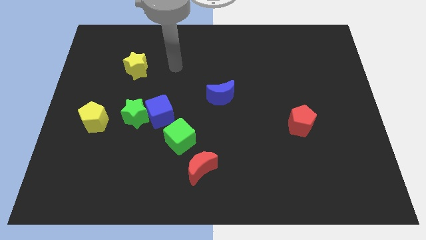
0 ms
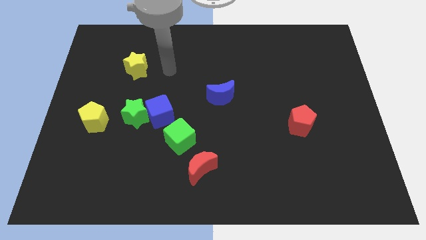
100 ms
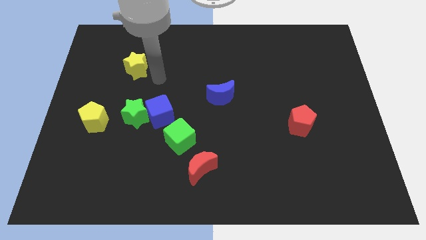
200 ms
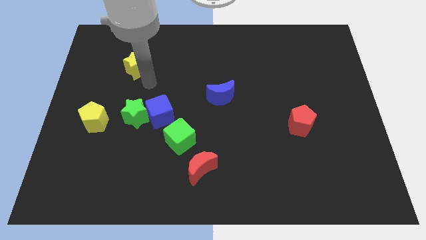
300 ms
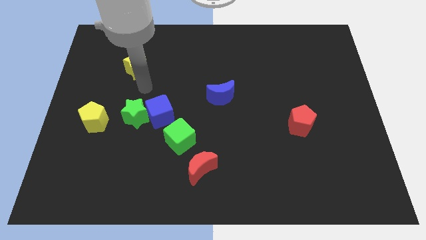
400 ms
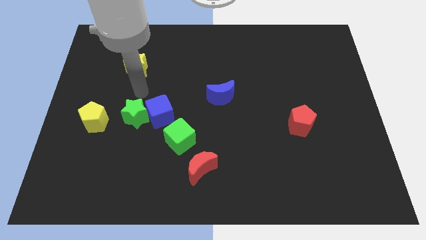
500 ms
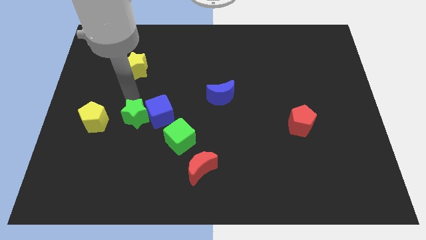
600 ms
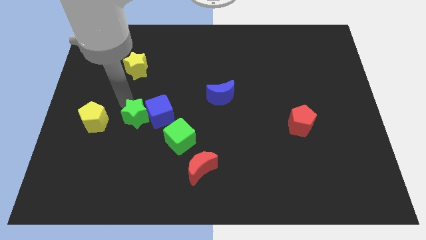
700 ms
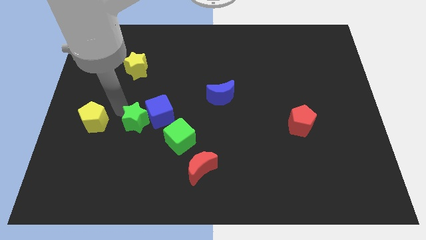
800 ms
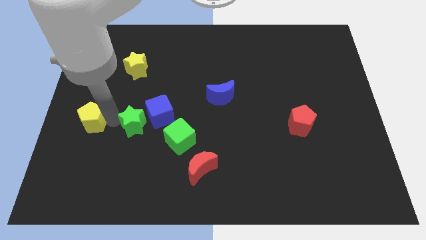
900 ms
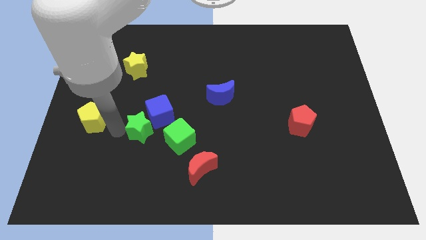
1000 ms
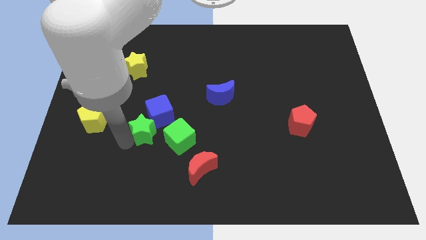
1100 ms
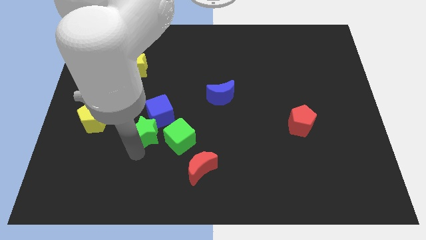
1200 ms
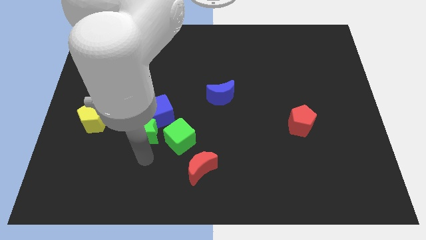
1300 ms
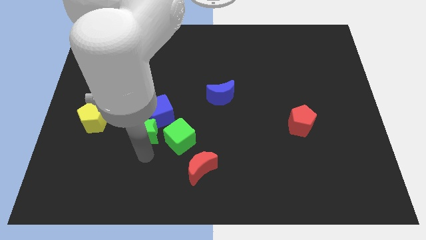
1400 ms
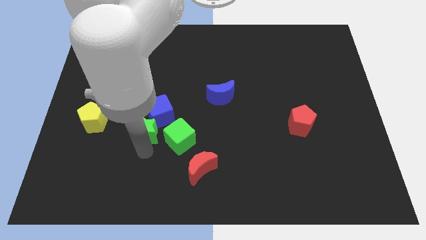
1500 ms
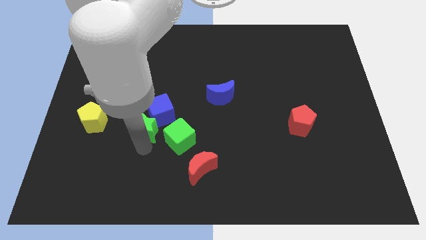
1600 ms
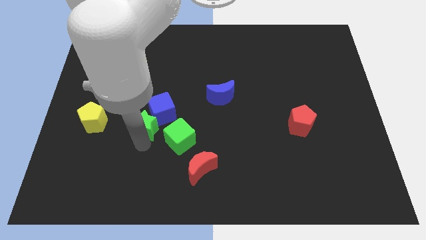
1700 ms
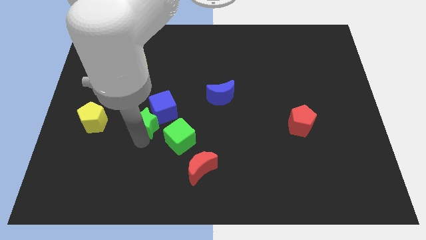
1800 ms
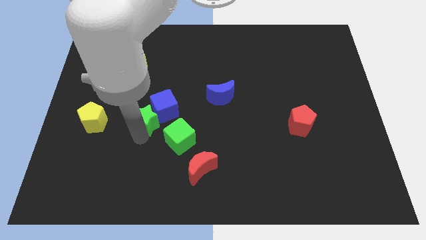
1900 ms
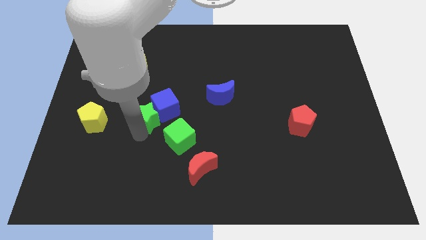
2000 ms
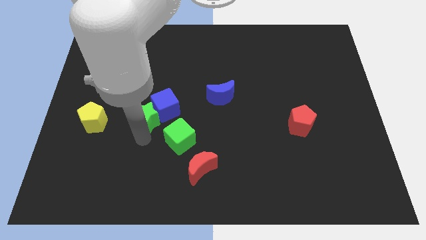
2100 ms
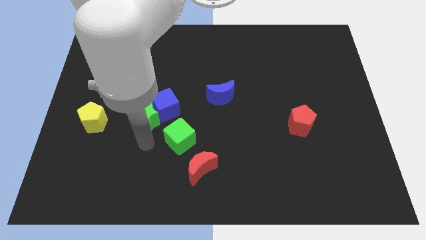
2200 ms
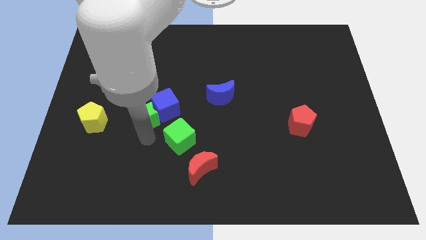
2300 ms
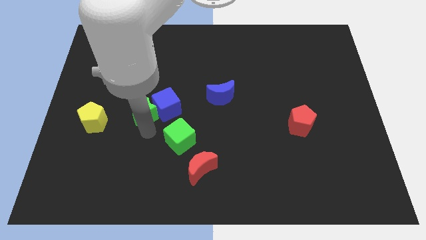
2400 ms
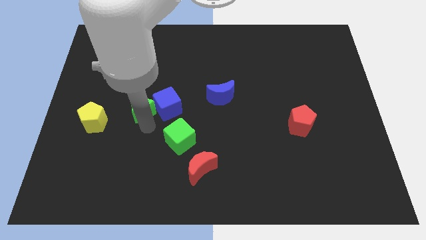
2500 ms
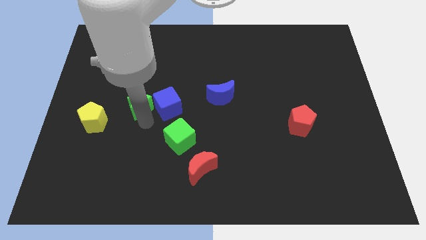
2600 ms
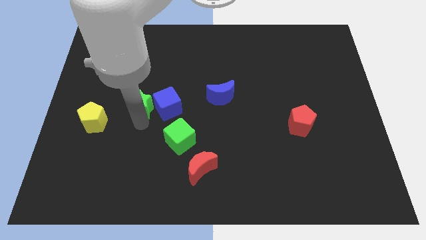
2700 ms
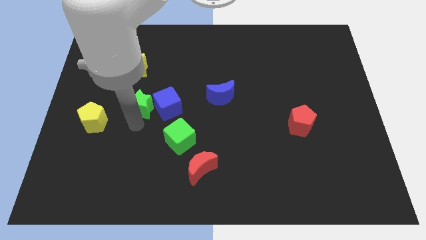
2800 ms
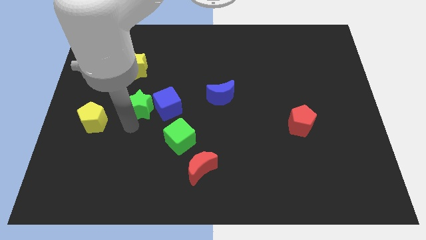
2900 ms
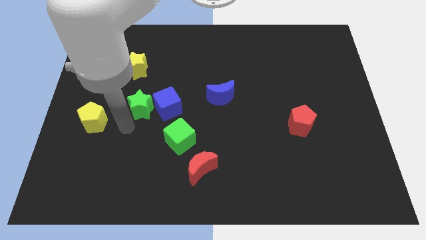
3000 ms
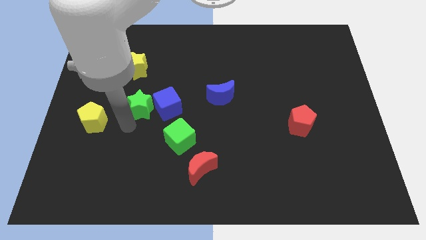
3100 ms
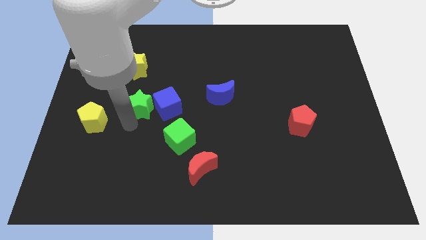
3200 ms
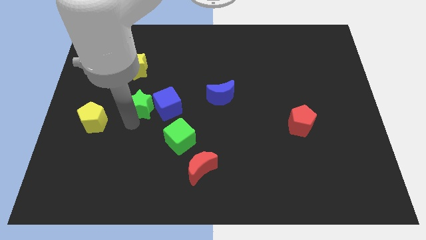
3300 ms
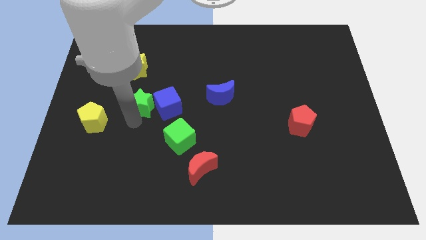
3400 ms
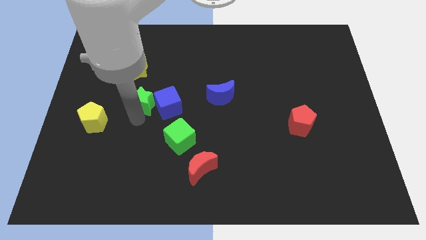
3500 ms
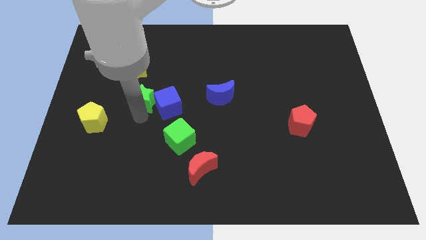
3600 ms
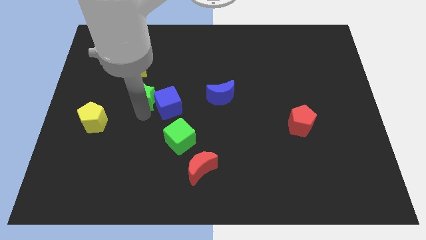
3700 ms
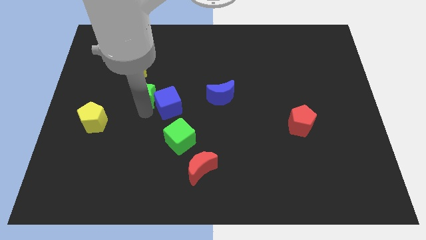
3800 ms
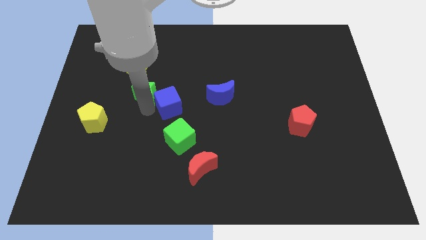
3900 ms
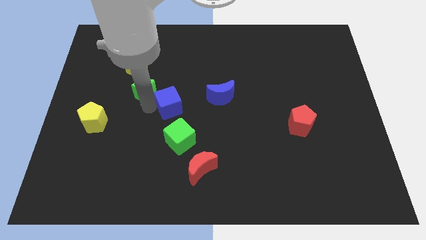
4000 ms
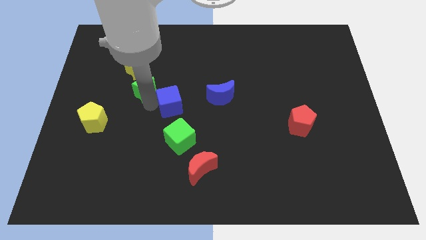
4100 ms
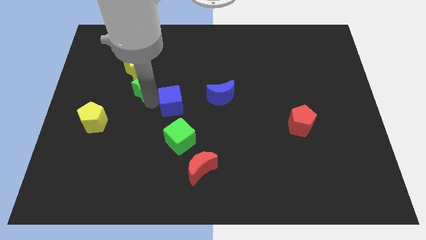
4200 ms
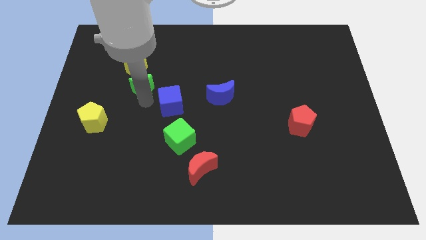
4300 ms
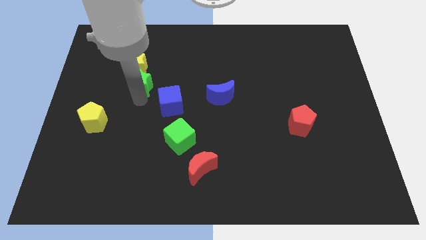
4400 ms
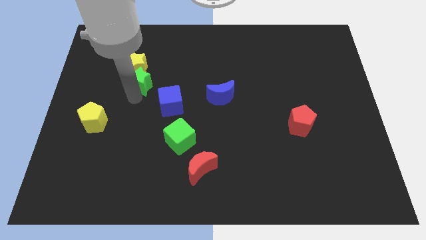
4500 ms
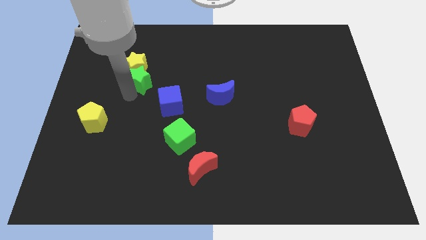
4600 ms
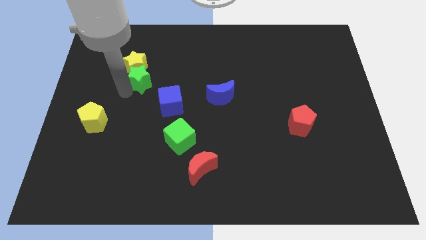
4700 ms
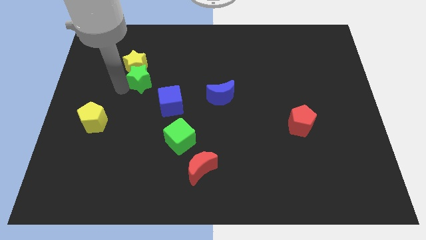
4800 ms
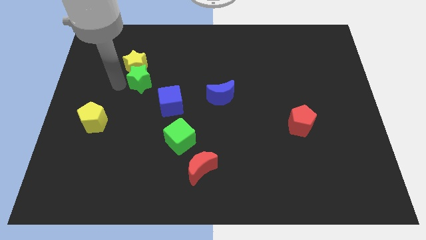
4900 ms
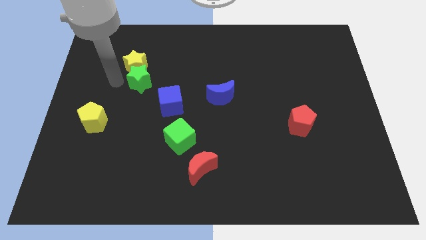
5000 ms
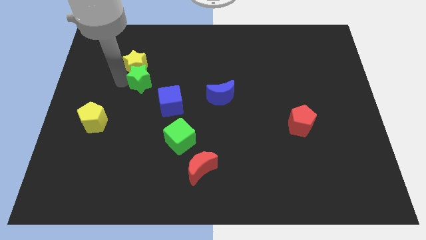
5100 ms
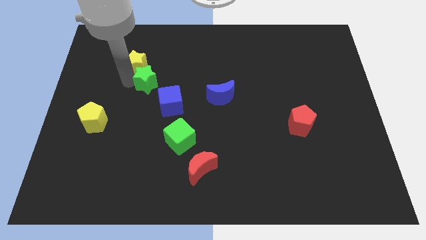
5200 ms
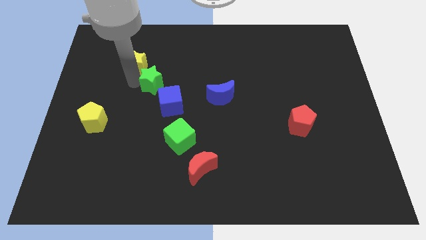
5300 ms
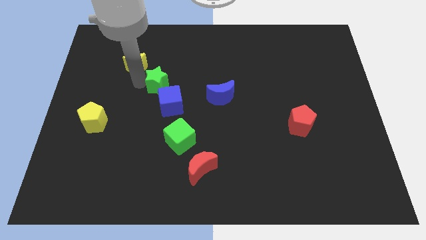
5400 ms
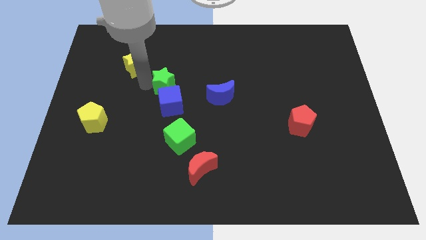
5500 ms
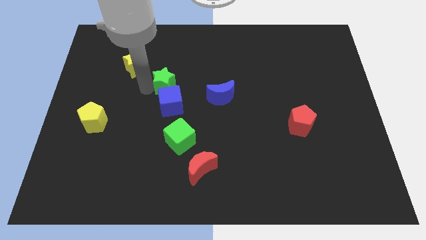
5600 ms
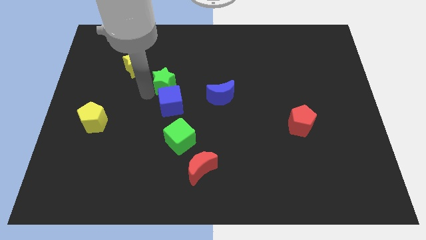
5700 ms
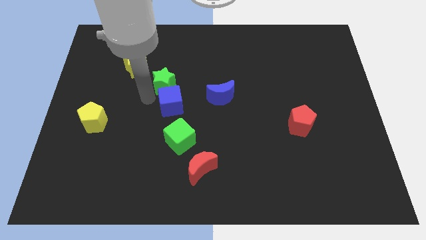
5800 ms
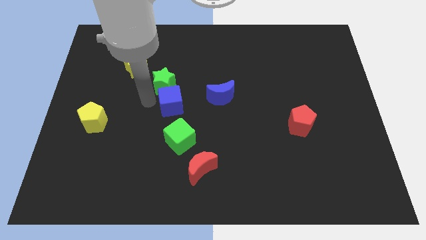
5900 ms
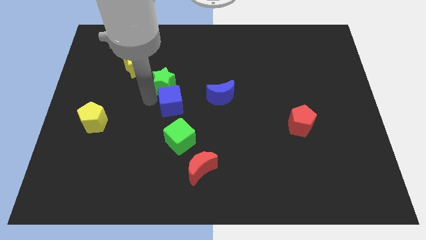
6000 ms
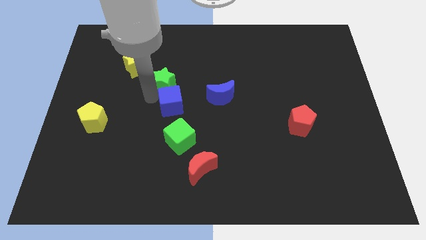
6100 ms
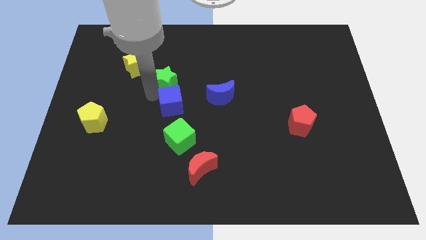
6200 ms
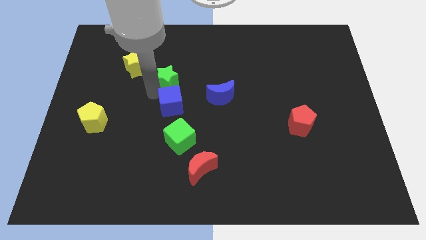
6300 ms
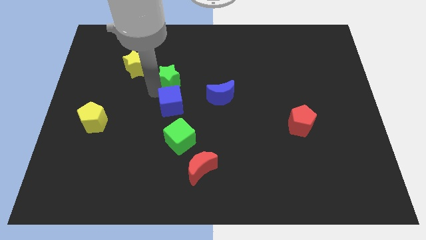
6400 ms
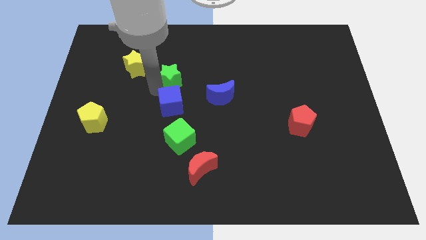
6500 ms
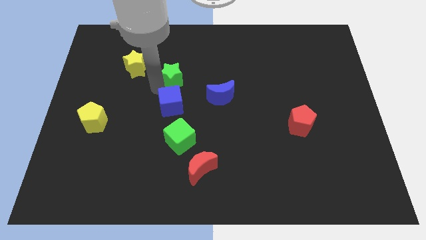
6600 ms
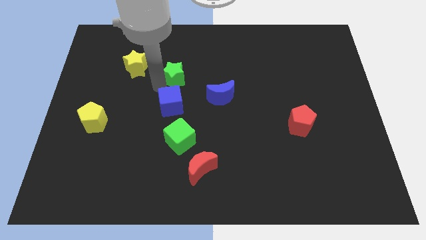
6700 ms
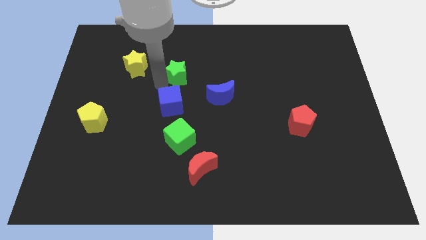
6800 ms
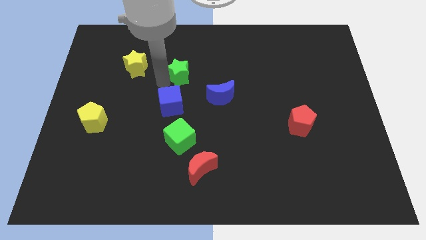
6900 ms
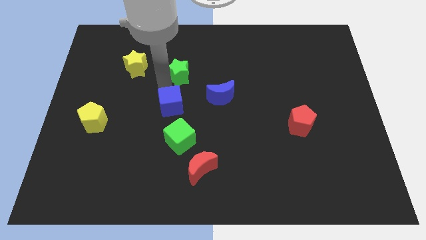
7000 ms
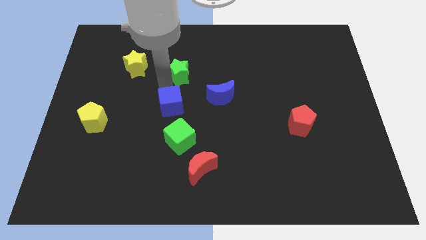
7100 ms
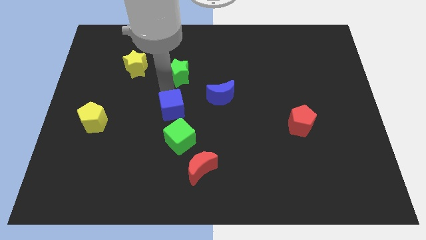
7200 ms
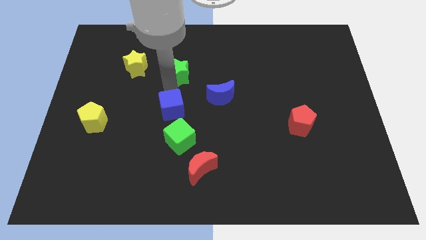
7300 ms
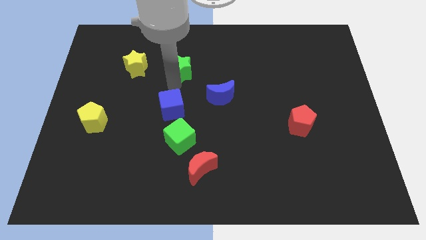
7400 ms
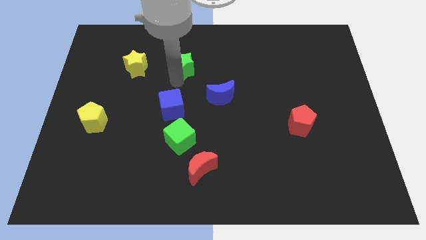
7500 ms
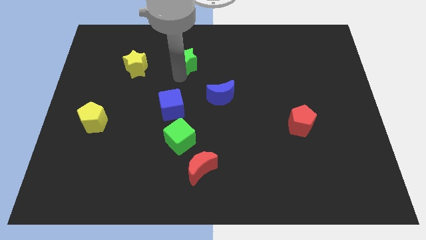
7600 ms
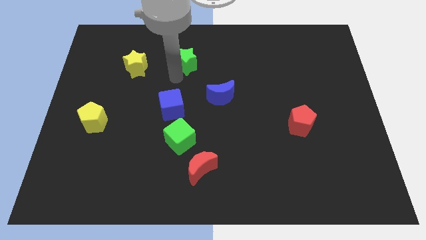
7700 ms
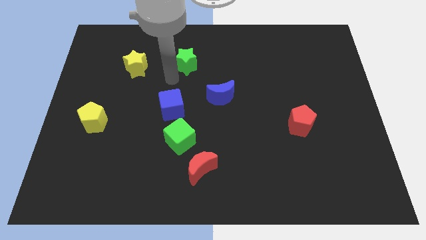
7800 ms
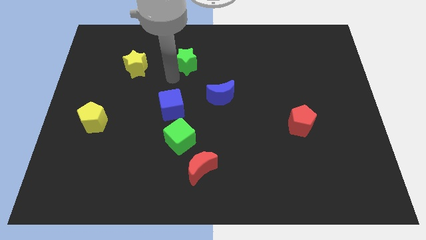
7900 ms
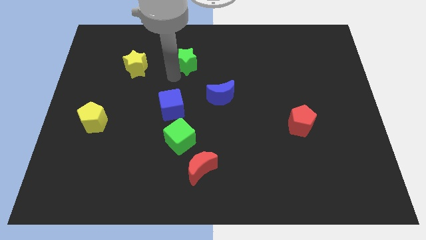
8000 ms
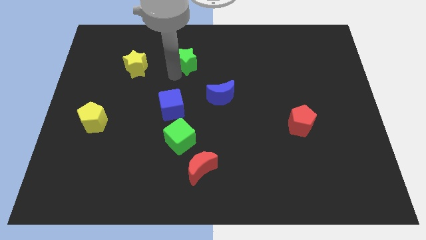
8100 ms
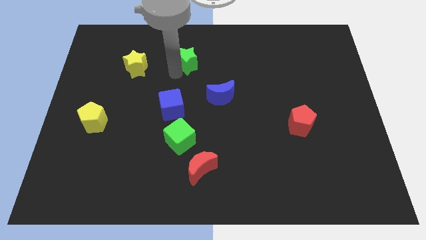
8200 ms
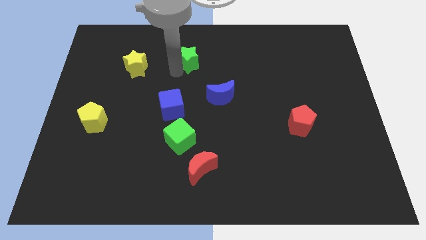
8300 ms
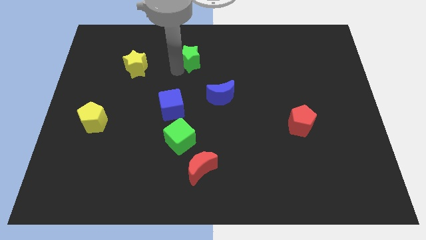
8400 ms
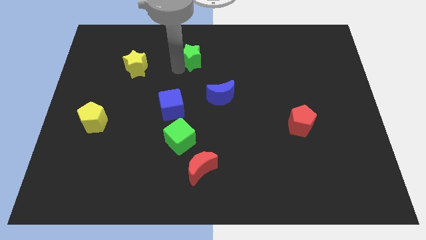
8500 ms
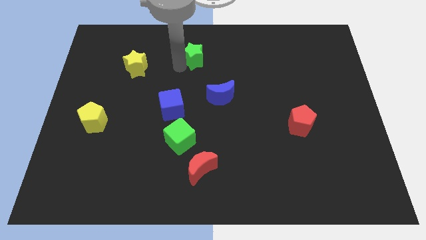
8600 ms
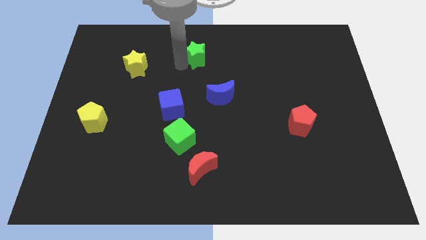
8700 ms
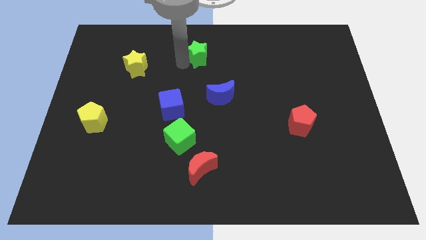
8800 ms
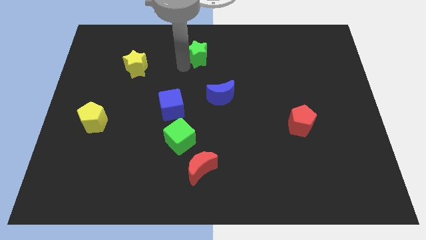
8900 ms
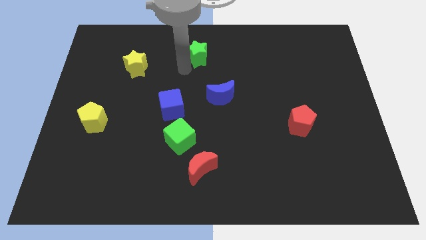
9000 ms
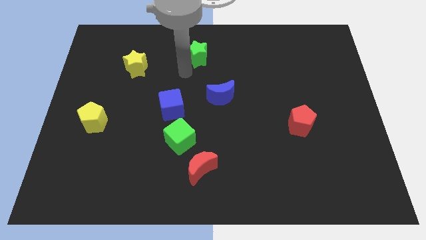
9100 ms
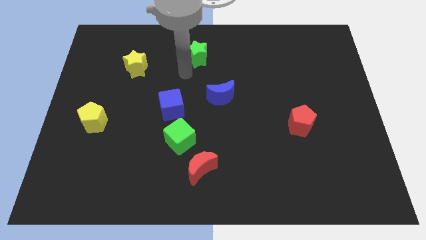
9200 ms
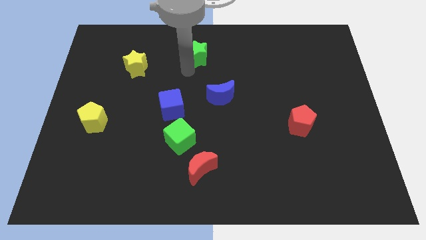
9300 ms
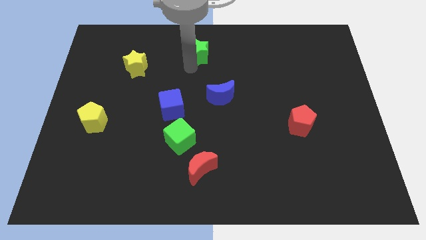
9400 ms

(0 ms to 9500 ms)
put the green star to the towards your base
